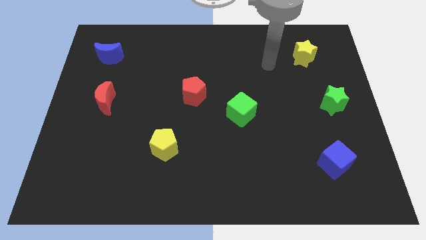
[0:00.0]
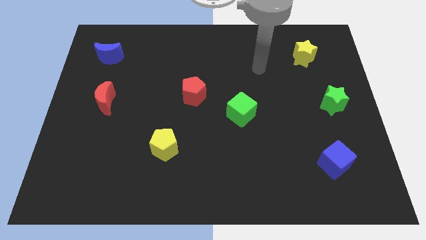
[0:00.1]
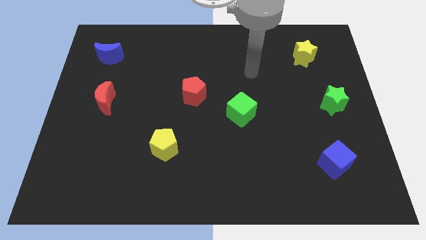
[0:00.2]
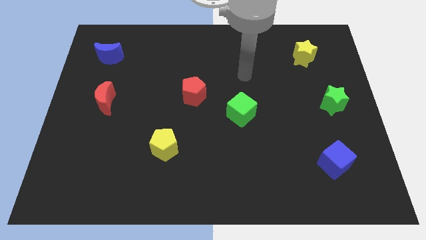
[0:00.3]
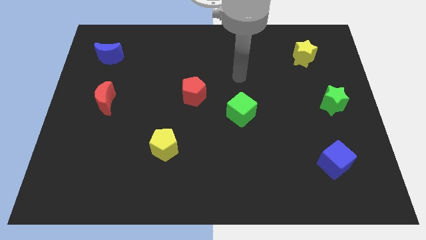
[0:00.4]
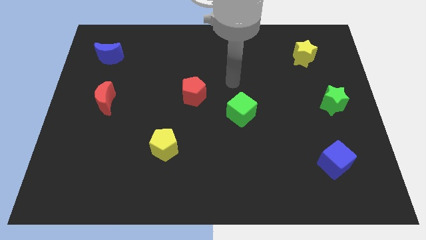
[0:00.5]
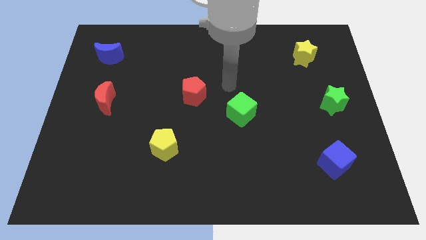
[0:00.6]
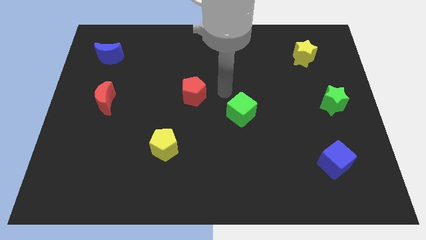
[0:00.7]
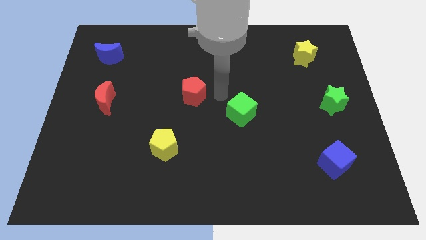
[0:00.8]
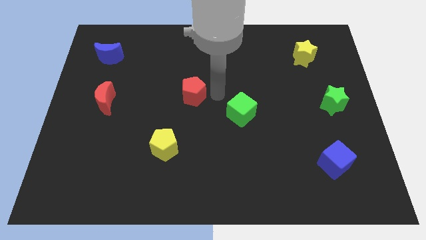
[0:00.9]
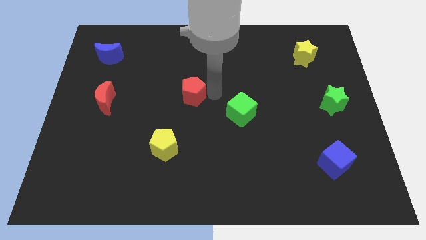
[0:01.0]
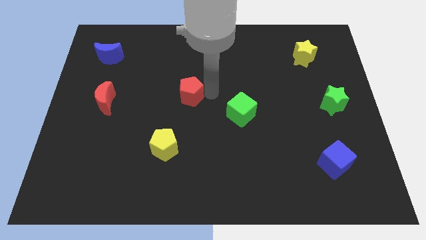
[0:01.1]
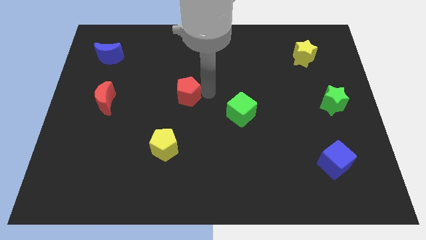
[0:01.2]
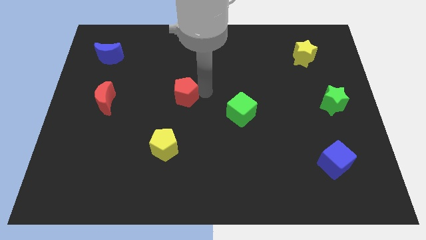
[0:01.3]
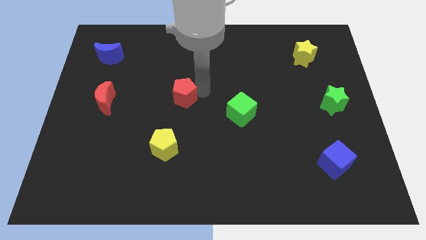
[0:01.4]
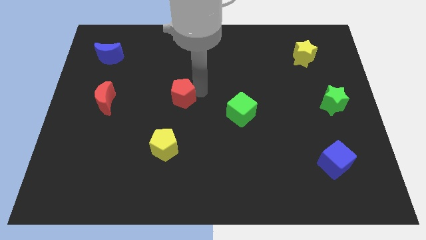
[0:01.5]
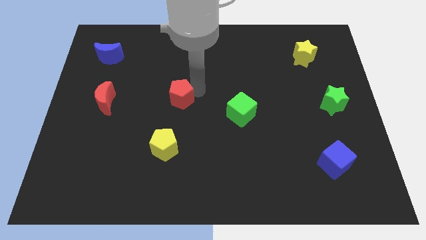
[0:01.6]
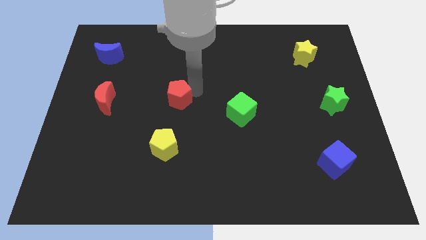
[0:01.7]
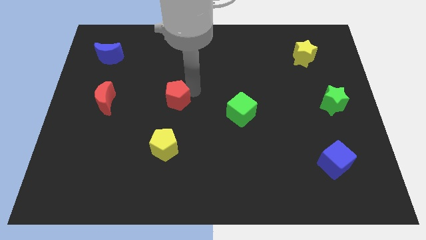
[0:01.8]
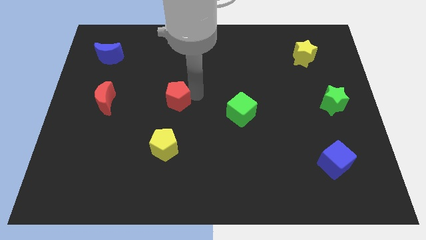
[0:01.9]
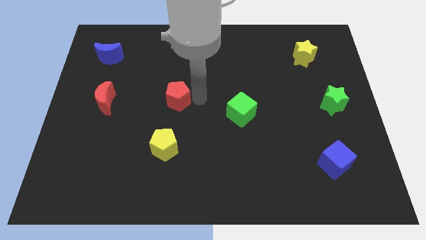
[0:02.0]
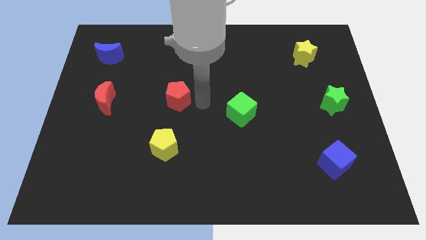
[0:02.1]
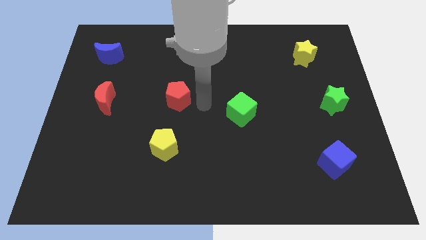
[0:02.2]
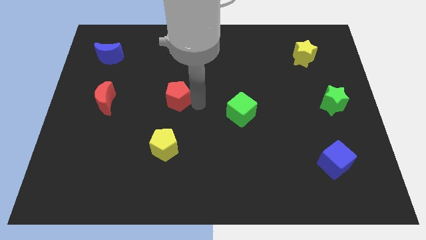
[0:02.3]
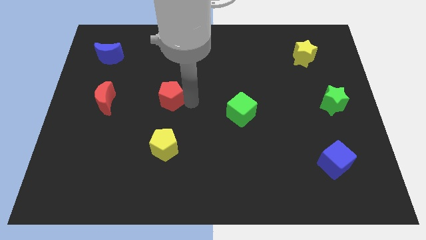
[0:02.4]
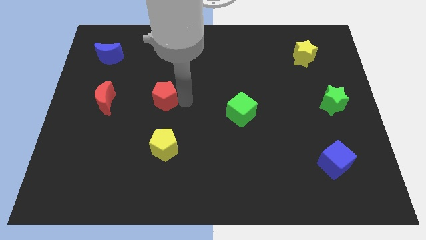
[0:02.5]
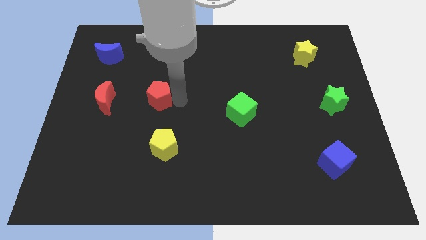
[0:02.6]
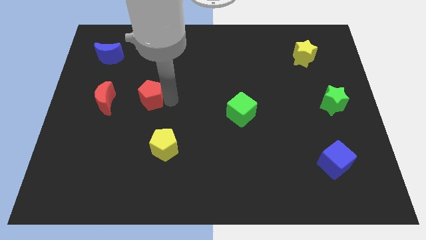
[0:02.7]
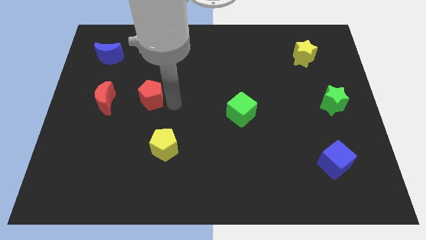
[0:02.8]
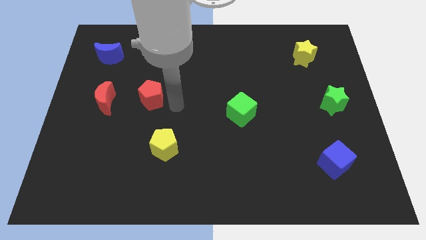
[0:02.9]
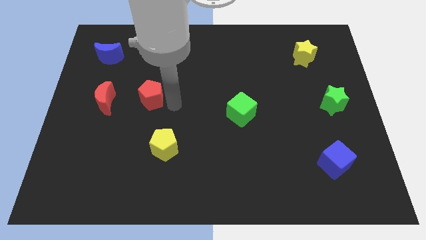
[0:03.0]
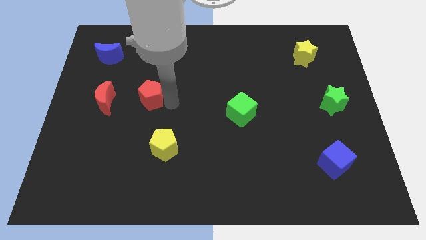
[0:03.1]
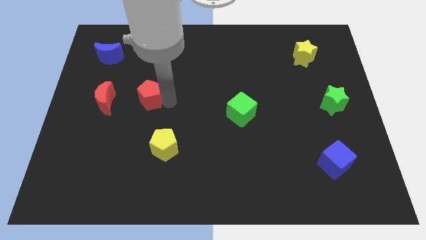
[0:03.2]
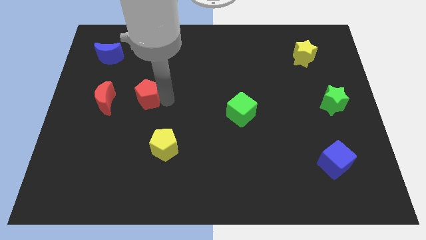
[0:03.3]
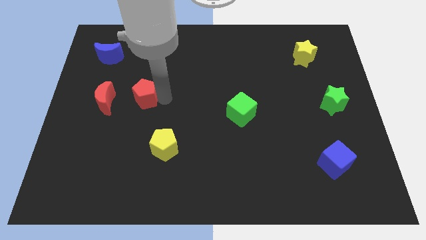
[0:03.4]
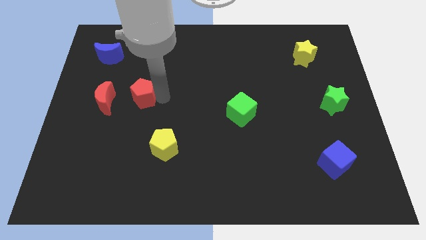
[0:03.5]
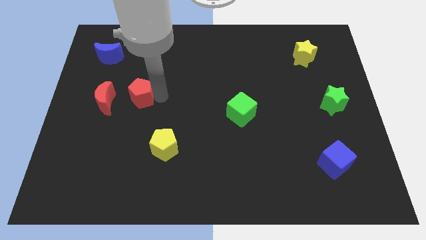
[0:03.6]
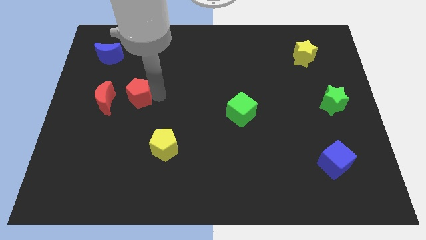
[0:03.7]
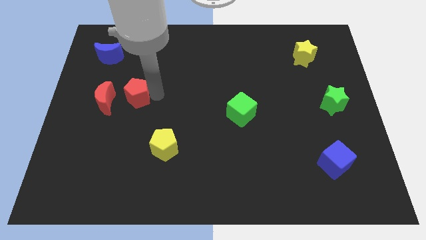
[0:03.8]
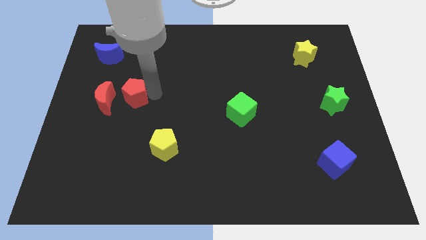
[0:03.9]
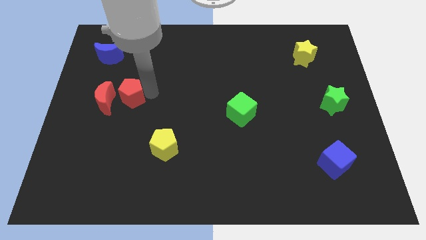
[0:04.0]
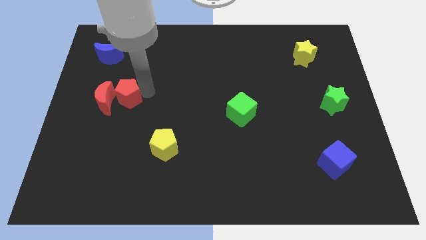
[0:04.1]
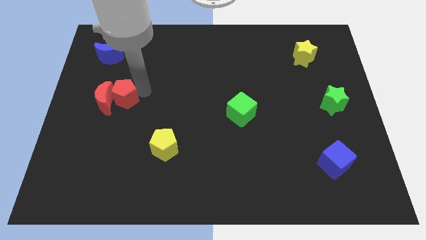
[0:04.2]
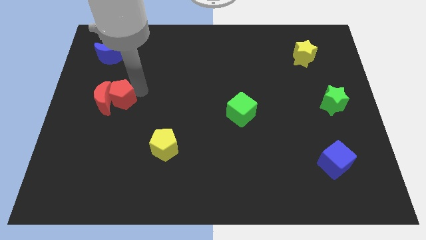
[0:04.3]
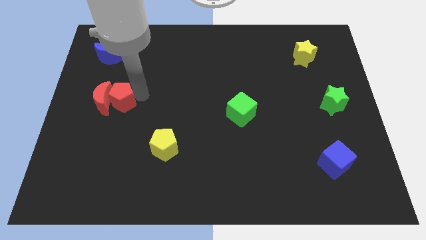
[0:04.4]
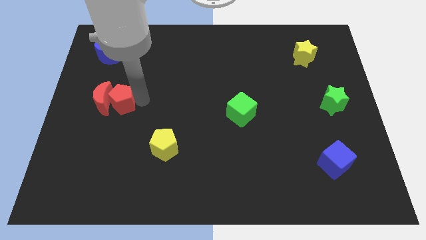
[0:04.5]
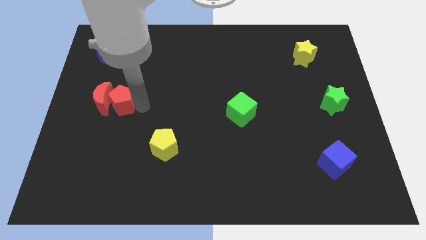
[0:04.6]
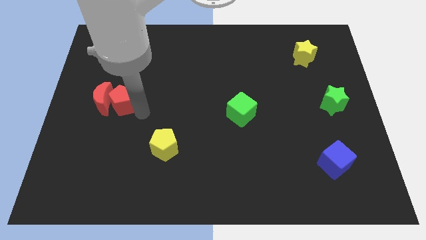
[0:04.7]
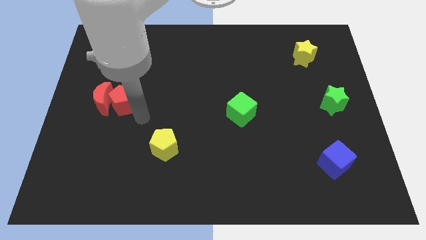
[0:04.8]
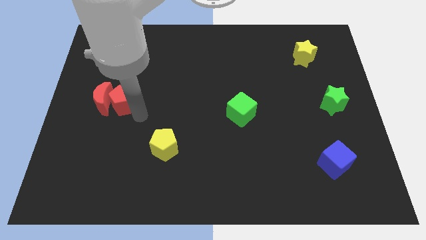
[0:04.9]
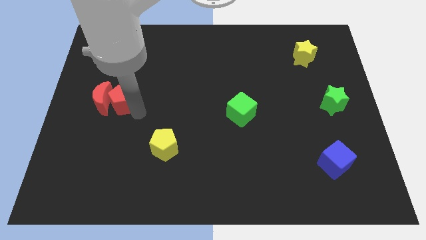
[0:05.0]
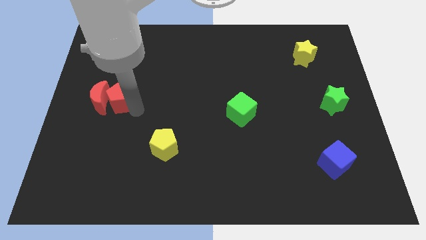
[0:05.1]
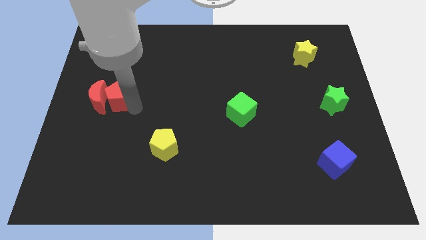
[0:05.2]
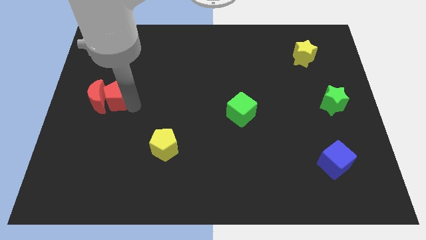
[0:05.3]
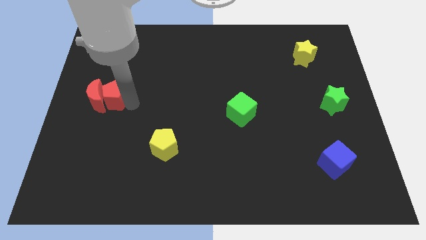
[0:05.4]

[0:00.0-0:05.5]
push the red pentagon below the blue moon

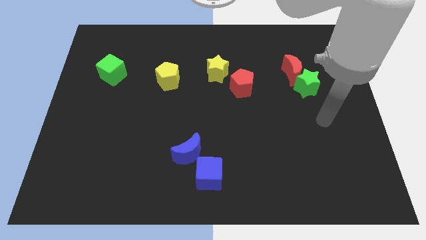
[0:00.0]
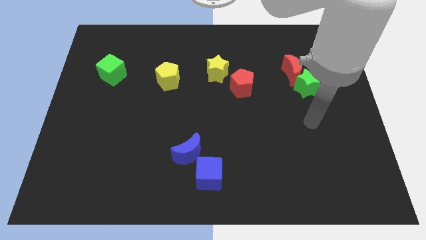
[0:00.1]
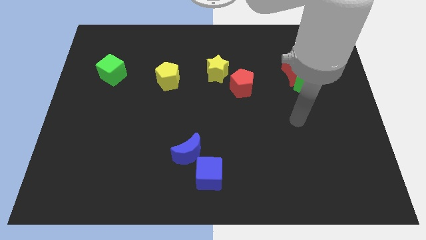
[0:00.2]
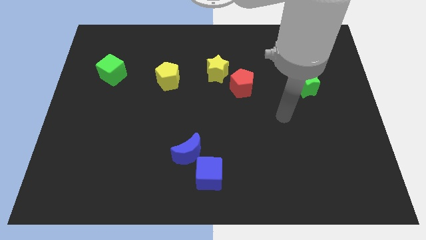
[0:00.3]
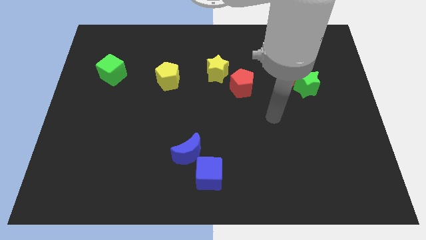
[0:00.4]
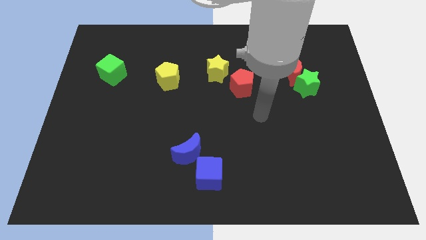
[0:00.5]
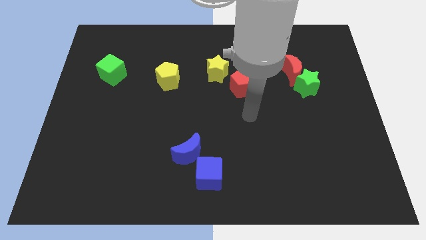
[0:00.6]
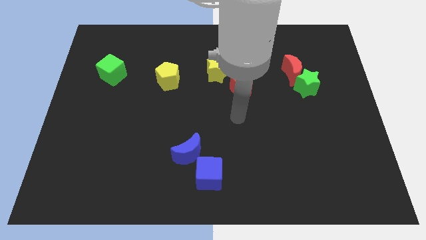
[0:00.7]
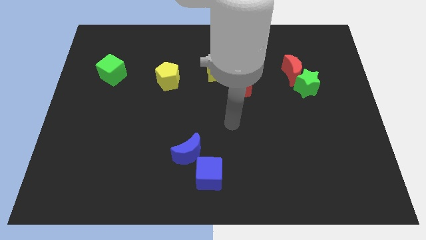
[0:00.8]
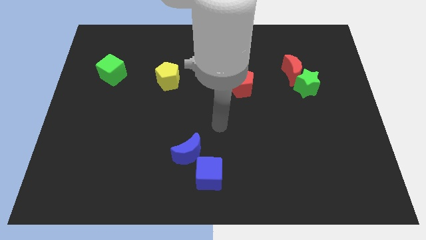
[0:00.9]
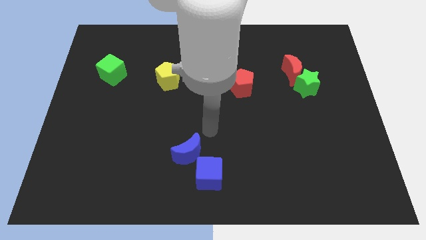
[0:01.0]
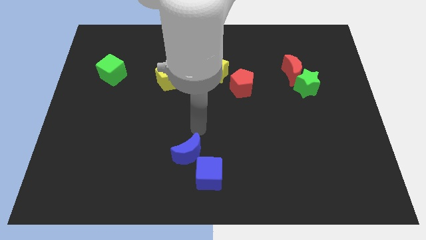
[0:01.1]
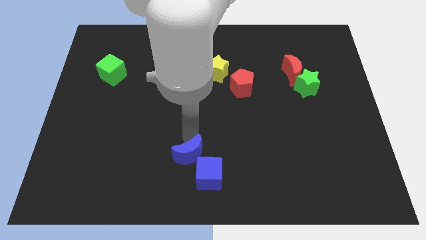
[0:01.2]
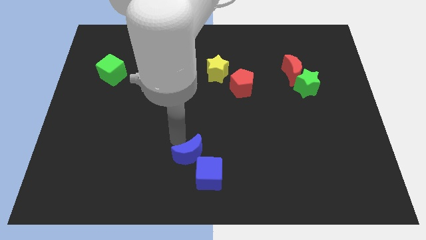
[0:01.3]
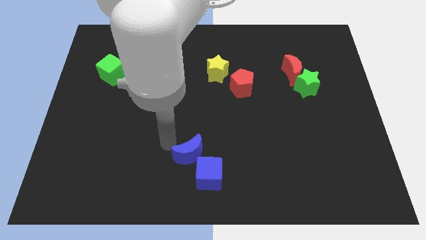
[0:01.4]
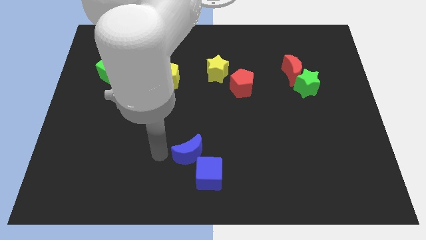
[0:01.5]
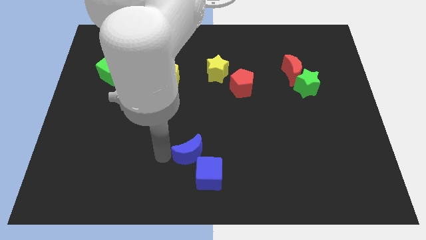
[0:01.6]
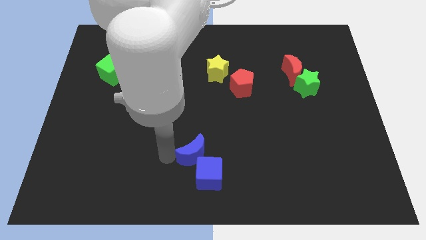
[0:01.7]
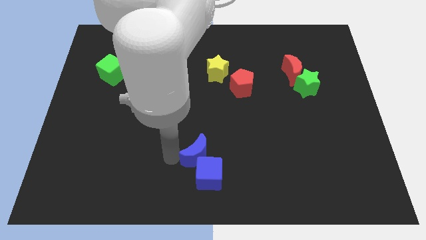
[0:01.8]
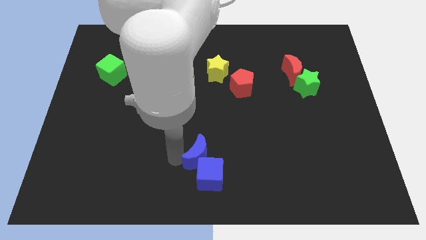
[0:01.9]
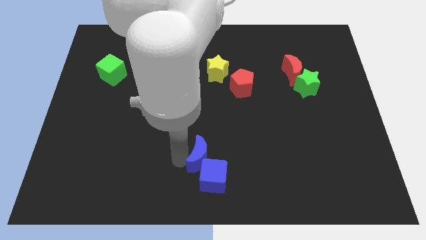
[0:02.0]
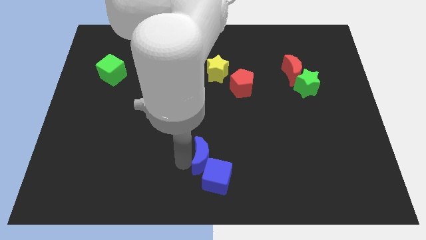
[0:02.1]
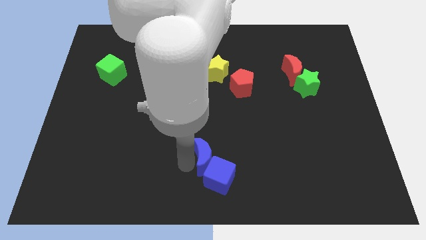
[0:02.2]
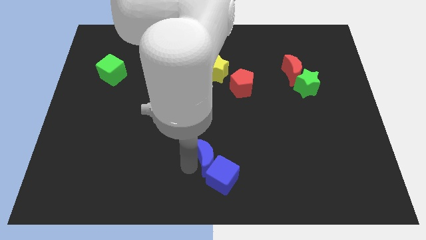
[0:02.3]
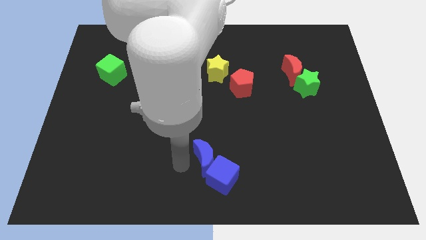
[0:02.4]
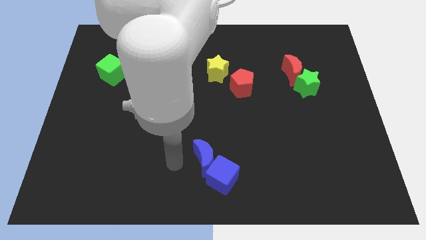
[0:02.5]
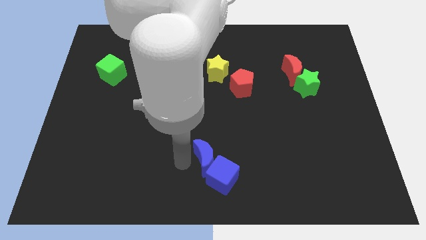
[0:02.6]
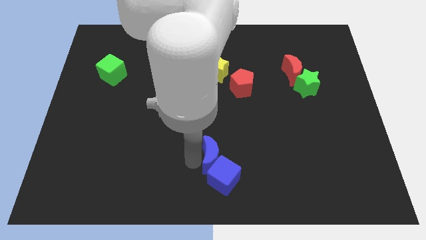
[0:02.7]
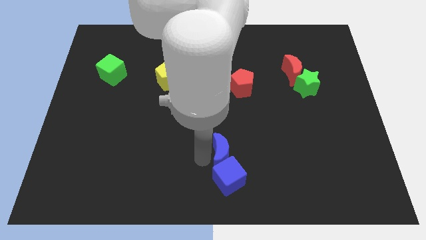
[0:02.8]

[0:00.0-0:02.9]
push the blue moon to the top right of the blue cube
